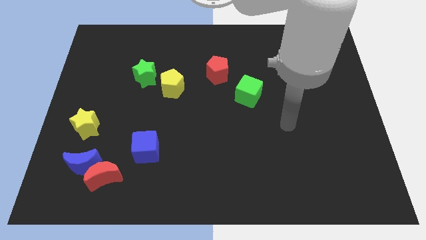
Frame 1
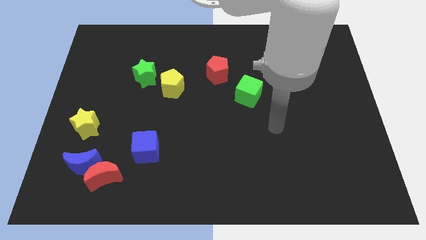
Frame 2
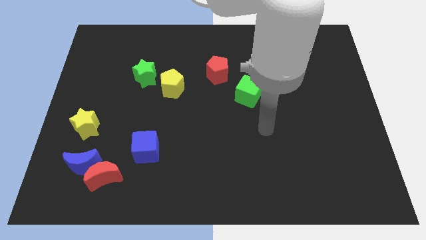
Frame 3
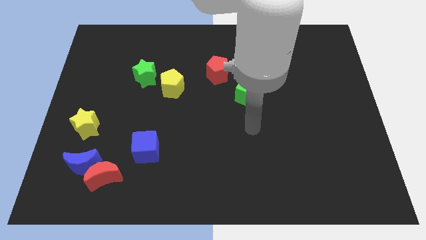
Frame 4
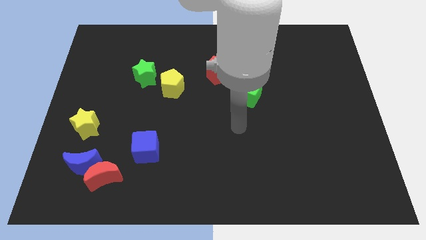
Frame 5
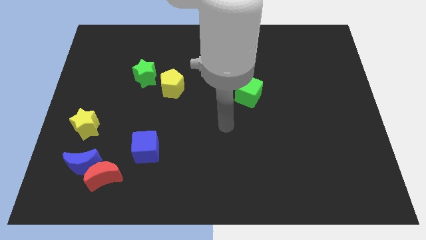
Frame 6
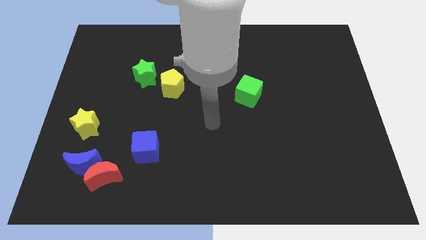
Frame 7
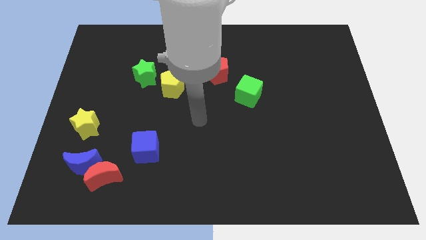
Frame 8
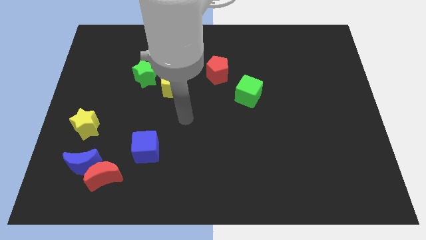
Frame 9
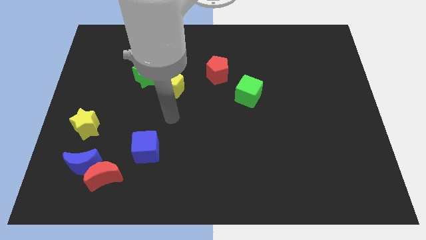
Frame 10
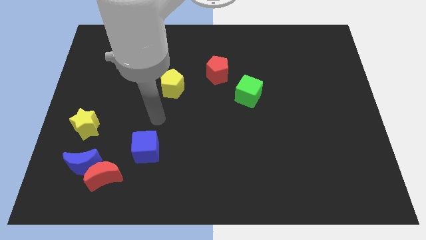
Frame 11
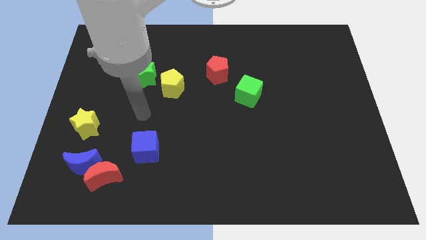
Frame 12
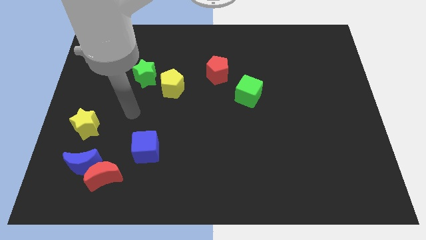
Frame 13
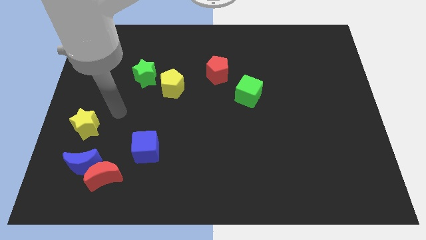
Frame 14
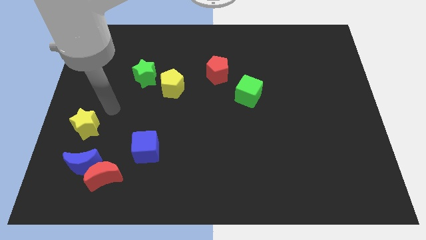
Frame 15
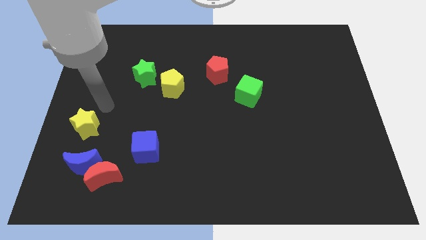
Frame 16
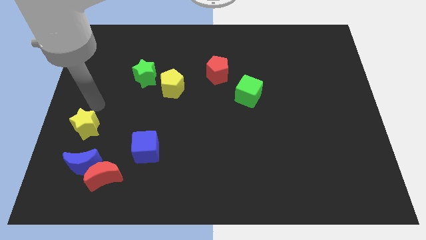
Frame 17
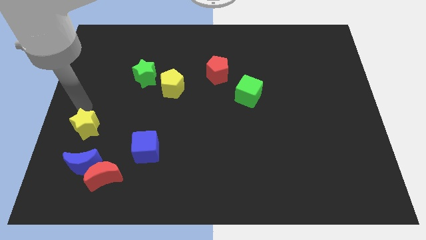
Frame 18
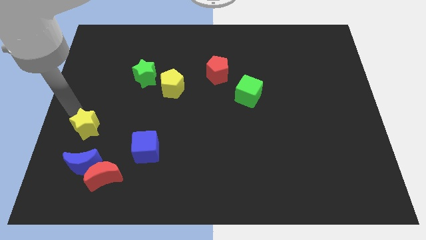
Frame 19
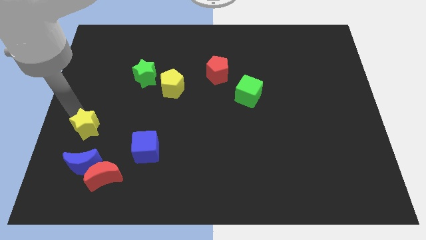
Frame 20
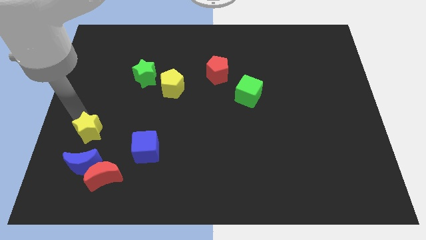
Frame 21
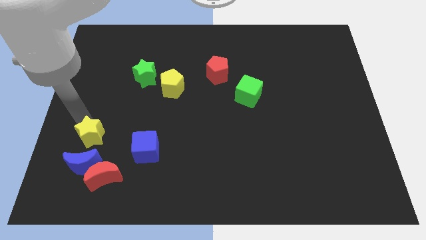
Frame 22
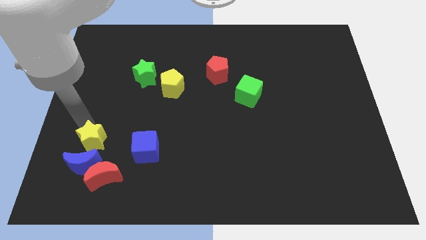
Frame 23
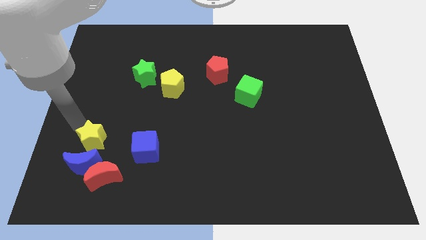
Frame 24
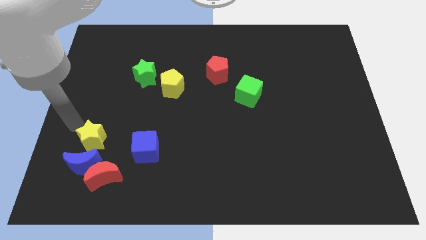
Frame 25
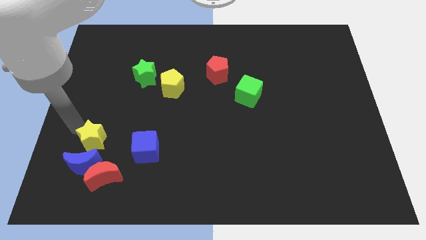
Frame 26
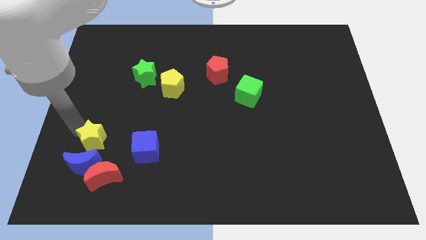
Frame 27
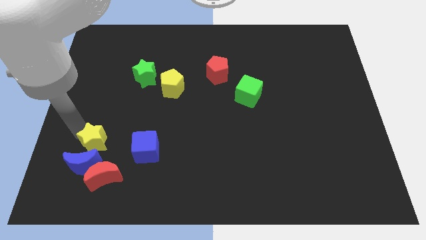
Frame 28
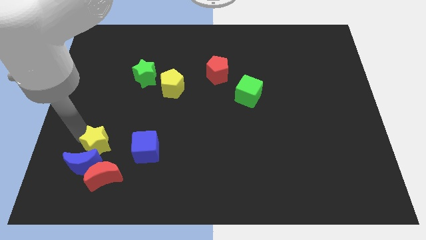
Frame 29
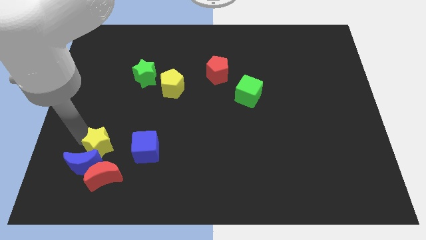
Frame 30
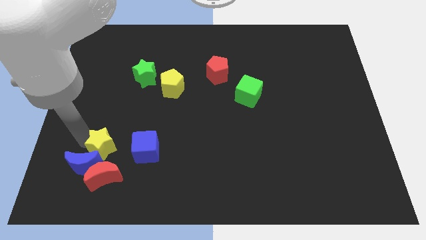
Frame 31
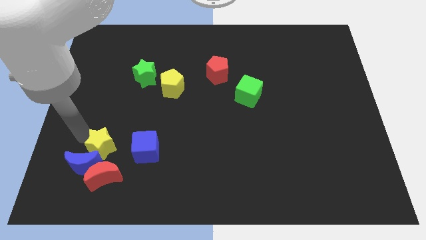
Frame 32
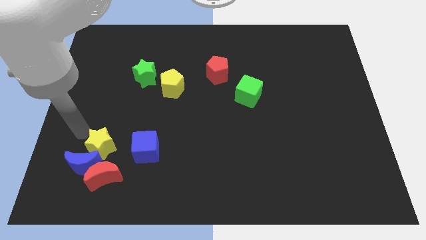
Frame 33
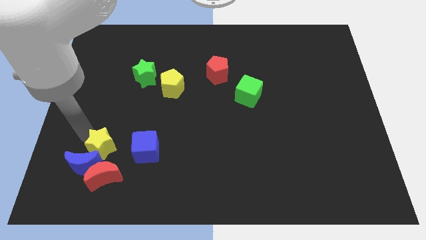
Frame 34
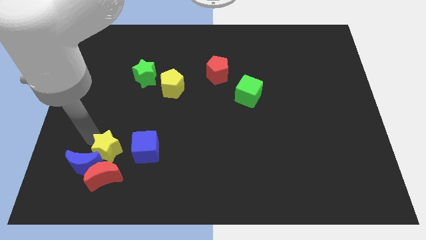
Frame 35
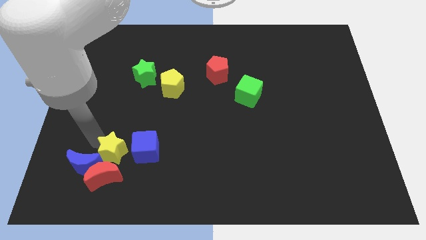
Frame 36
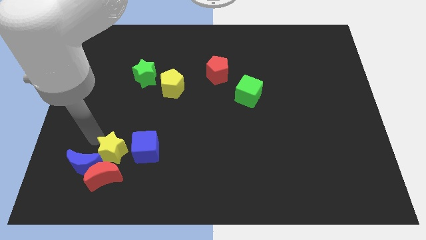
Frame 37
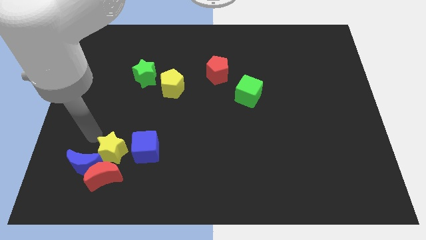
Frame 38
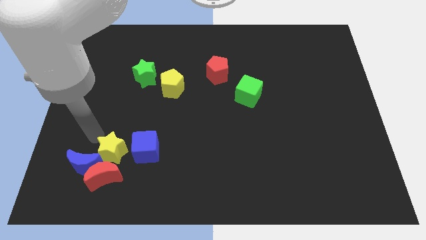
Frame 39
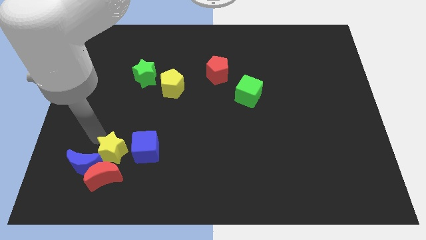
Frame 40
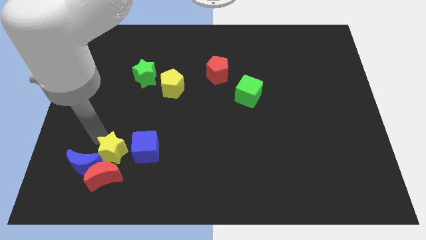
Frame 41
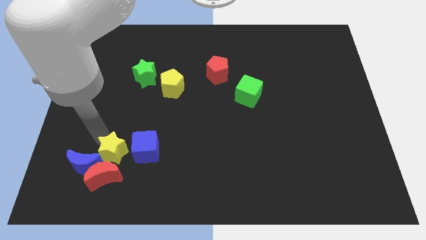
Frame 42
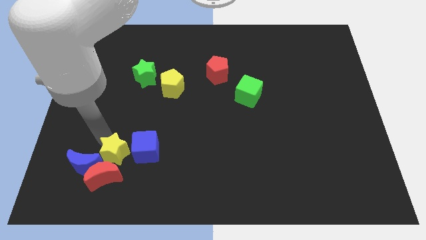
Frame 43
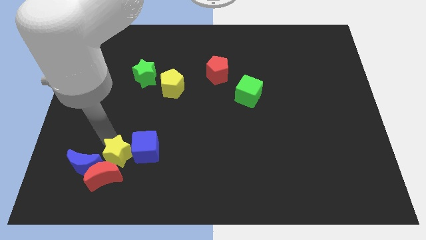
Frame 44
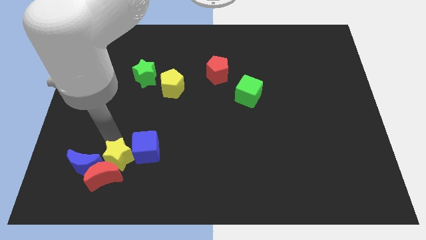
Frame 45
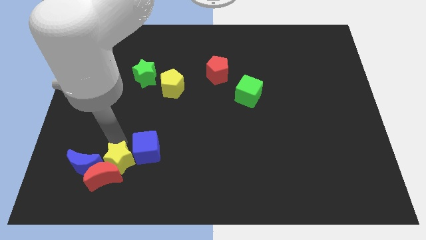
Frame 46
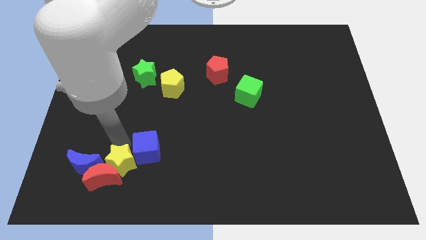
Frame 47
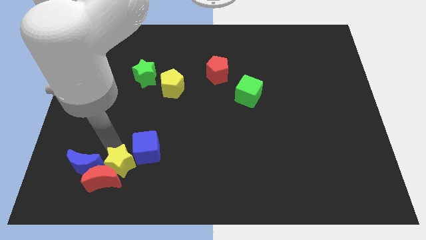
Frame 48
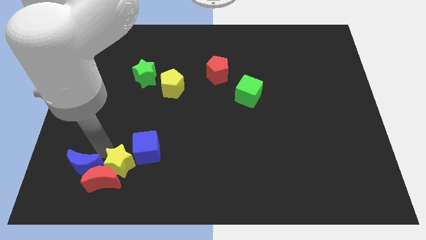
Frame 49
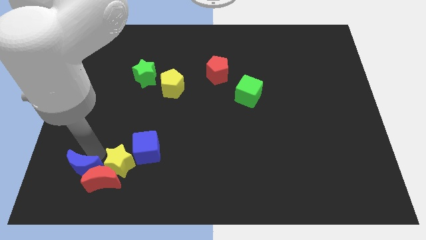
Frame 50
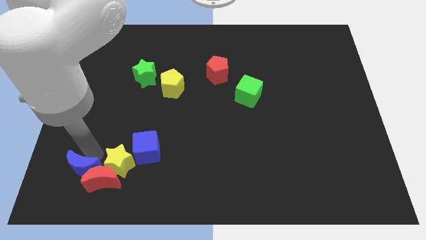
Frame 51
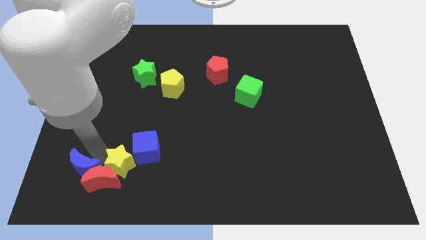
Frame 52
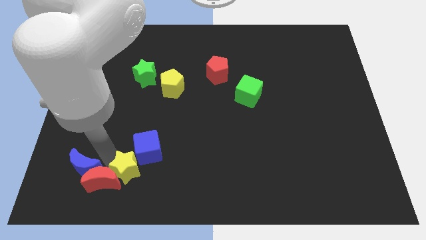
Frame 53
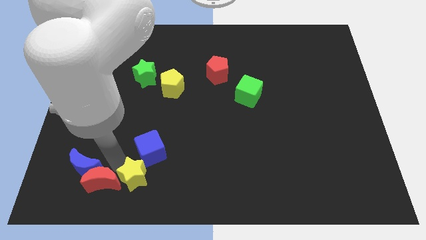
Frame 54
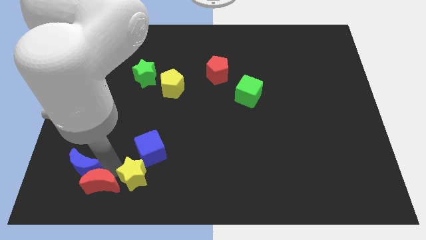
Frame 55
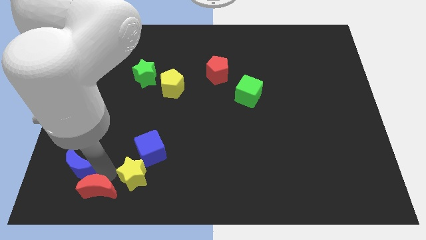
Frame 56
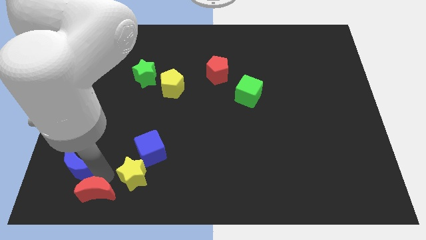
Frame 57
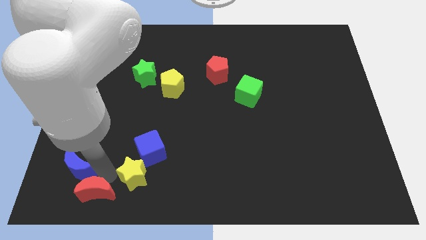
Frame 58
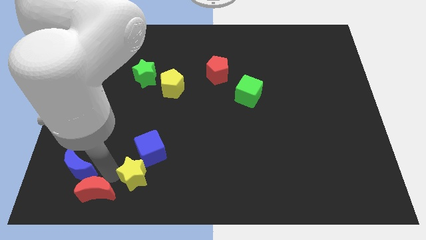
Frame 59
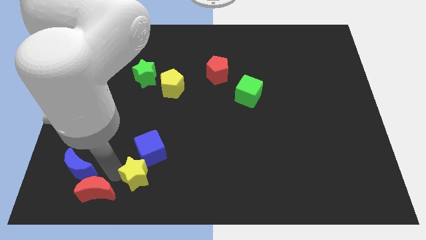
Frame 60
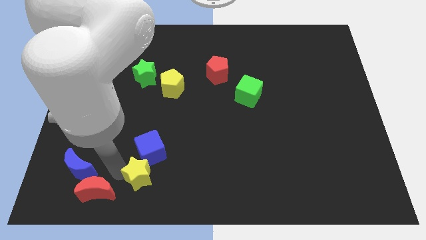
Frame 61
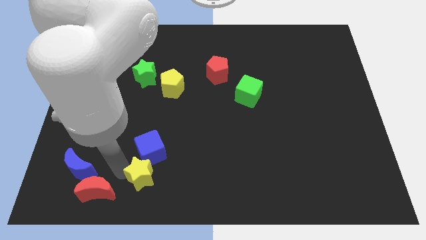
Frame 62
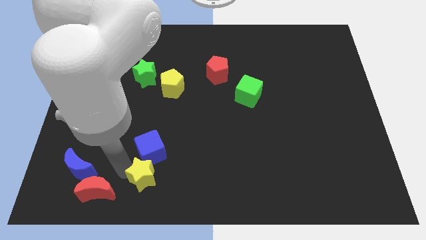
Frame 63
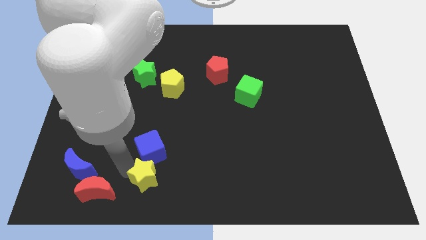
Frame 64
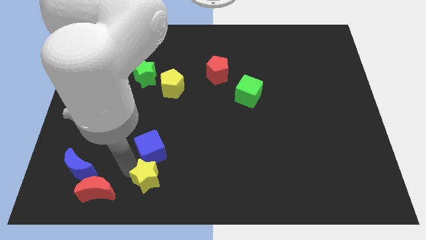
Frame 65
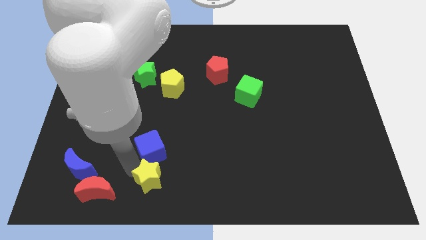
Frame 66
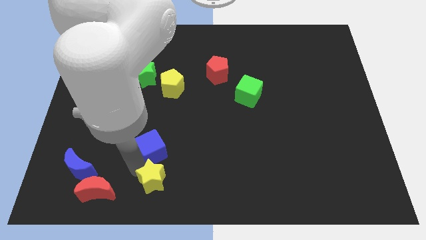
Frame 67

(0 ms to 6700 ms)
slide the yellow star to the bottom side

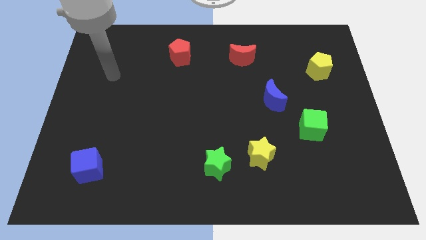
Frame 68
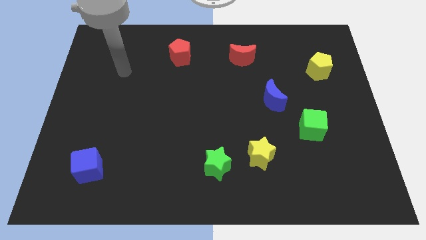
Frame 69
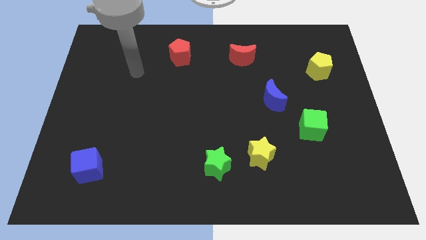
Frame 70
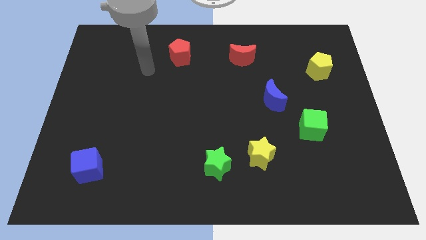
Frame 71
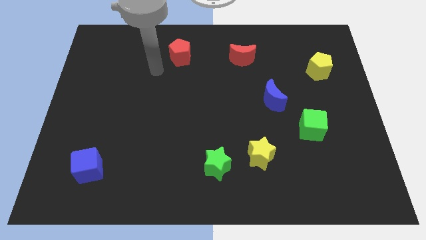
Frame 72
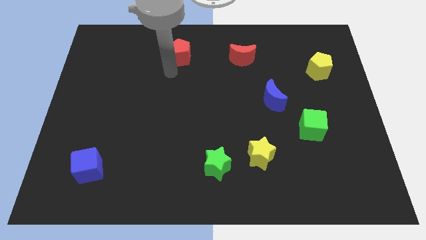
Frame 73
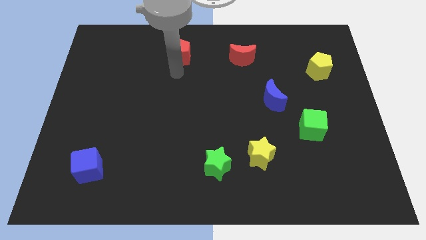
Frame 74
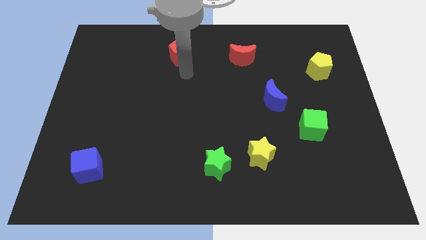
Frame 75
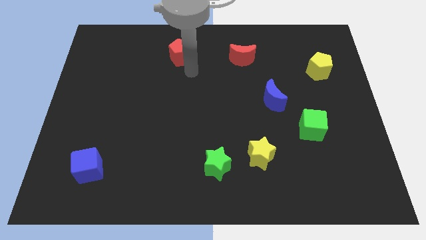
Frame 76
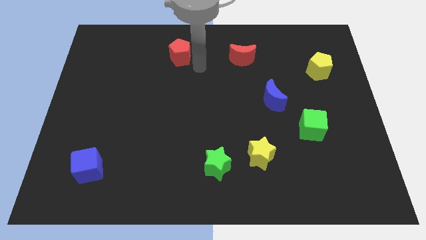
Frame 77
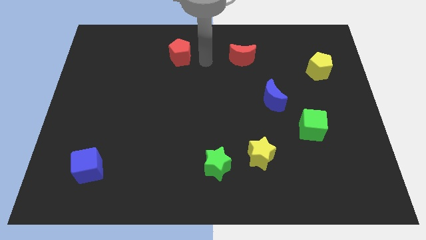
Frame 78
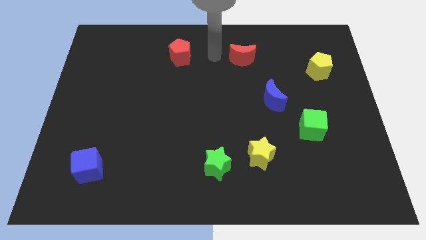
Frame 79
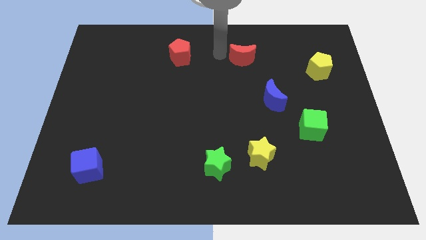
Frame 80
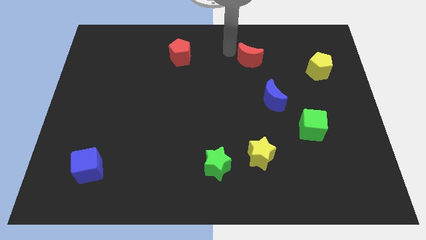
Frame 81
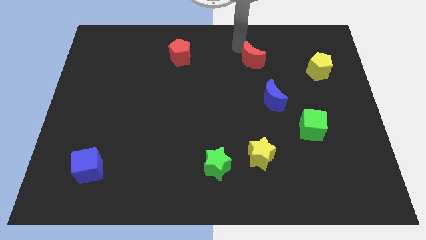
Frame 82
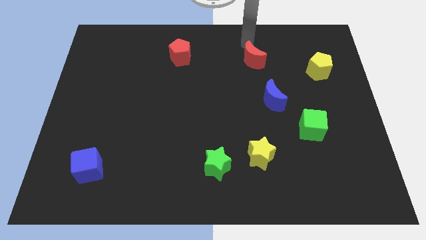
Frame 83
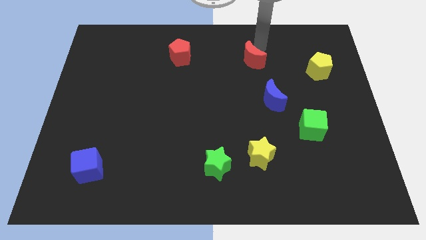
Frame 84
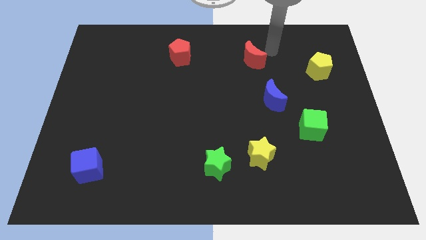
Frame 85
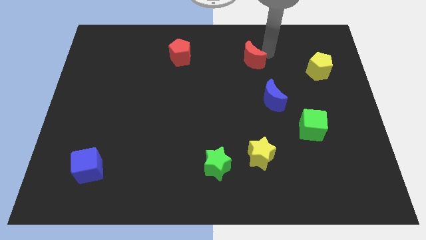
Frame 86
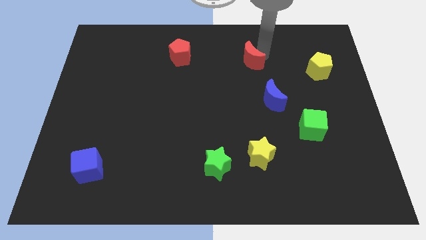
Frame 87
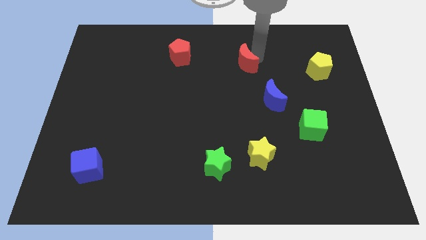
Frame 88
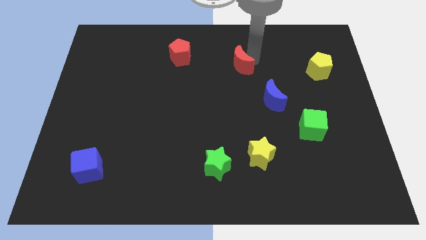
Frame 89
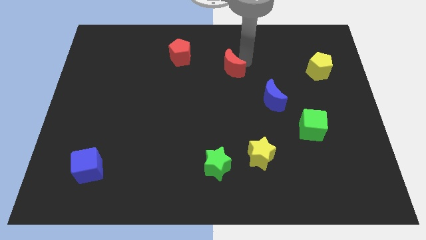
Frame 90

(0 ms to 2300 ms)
put the red moon to the center of the board
